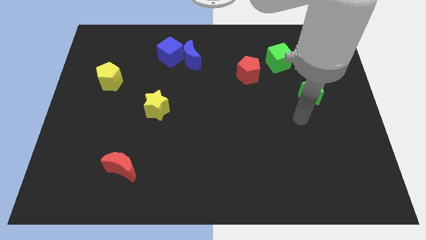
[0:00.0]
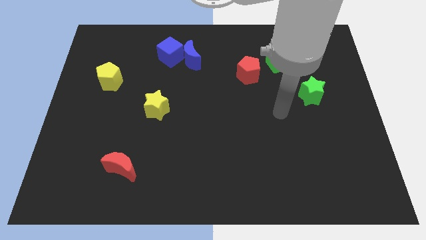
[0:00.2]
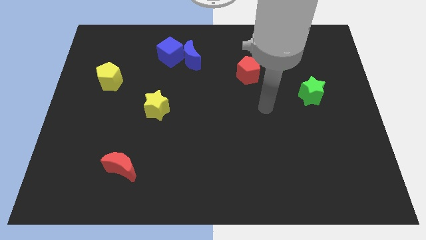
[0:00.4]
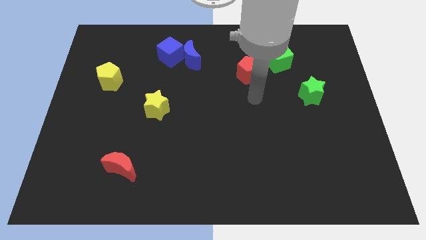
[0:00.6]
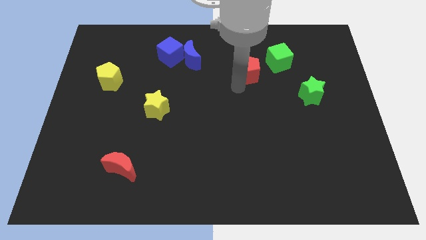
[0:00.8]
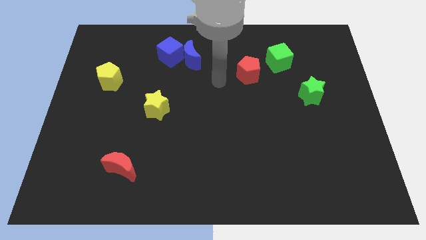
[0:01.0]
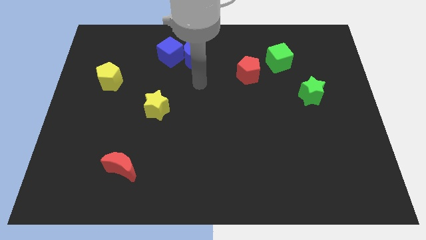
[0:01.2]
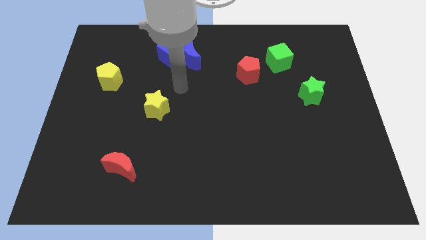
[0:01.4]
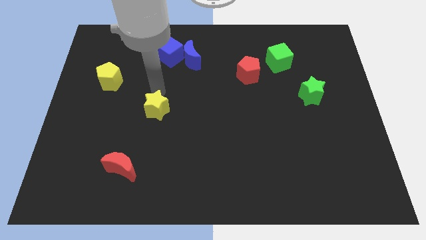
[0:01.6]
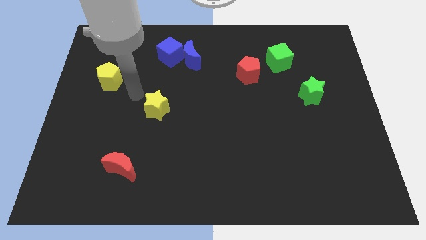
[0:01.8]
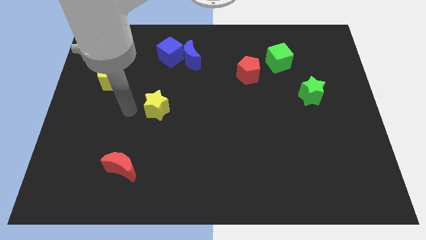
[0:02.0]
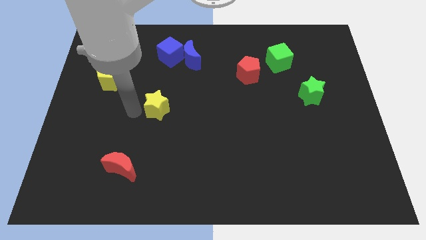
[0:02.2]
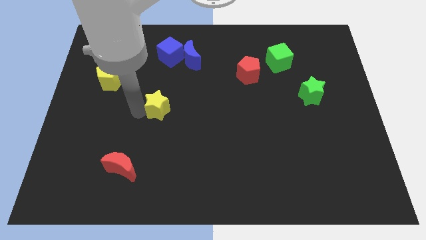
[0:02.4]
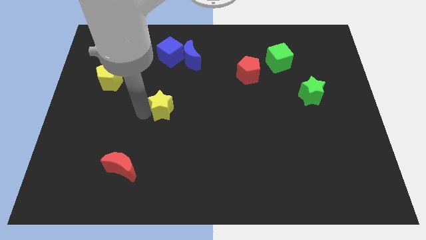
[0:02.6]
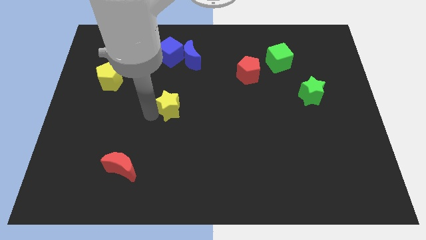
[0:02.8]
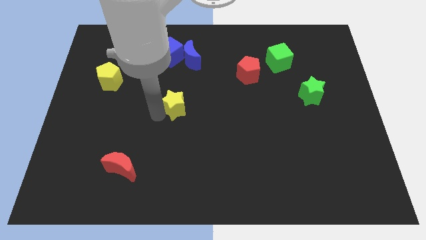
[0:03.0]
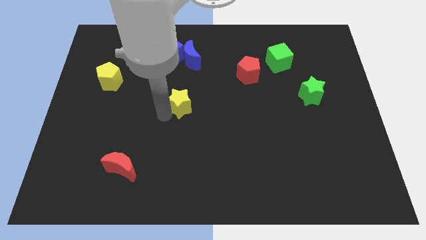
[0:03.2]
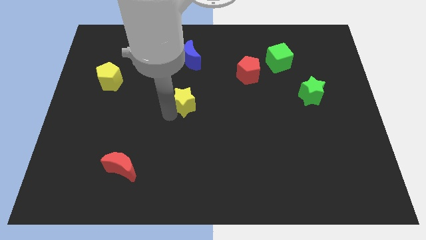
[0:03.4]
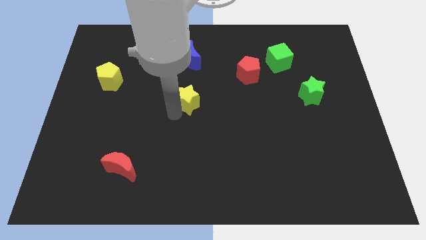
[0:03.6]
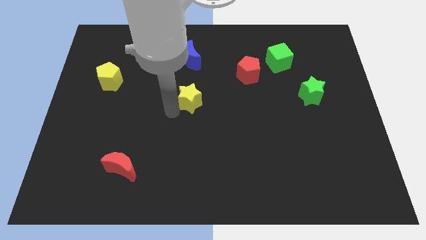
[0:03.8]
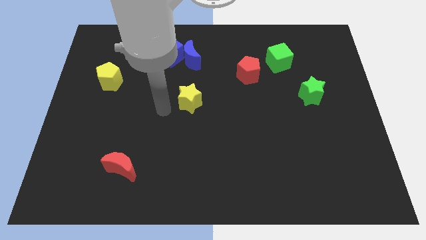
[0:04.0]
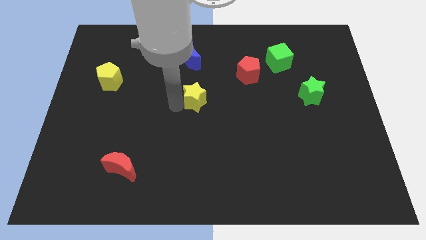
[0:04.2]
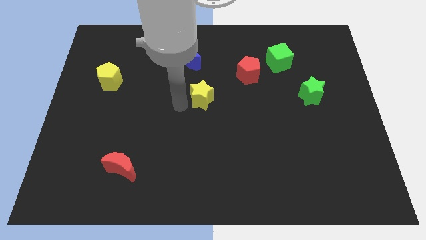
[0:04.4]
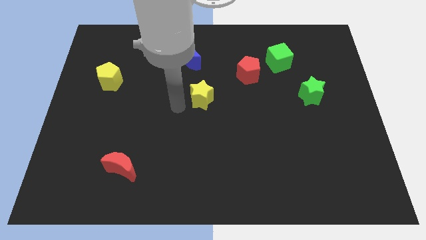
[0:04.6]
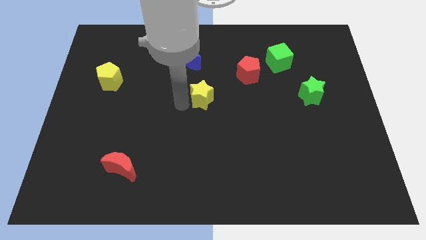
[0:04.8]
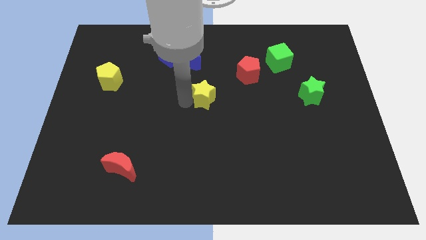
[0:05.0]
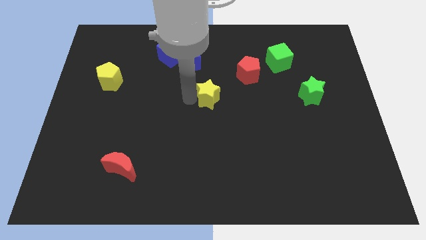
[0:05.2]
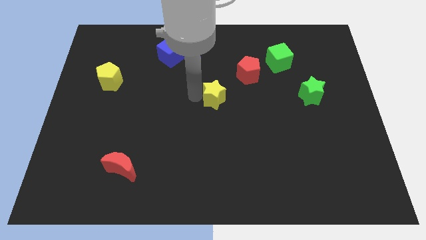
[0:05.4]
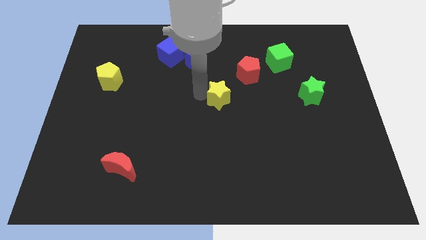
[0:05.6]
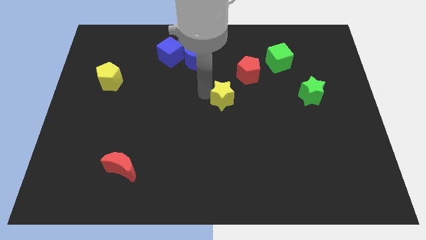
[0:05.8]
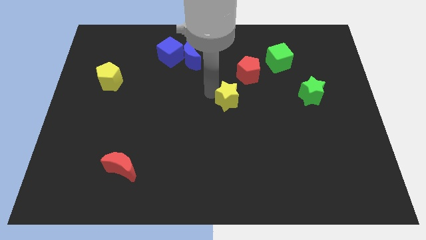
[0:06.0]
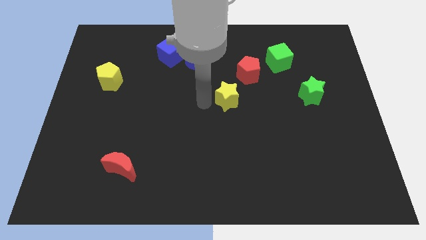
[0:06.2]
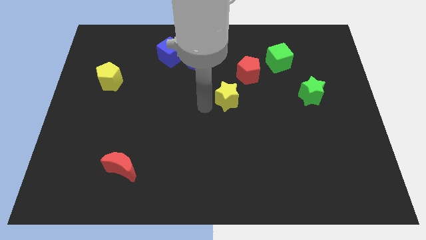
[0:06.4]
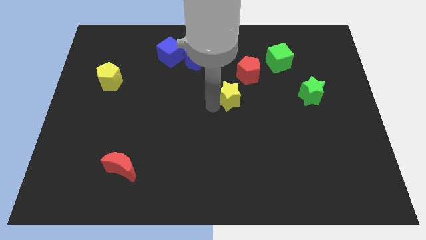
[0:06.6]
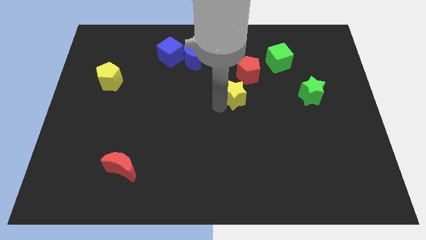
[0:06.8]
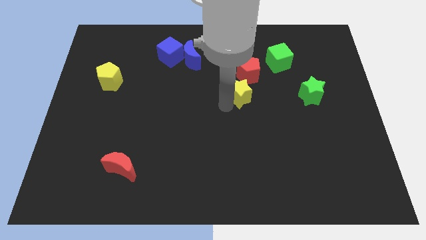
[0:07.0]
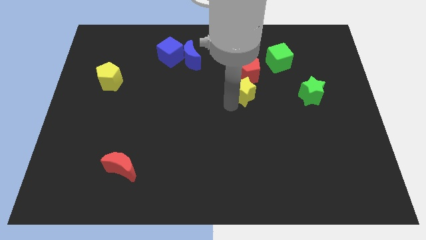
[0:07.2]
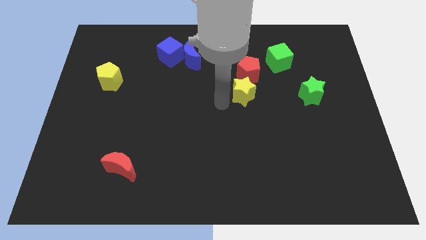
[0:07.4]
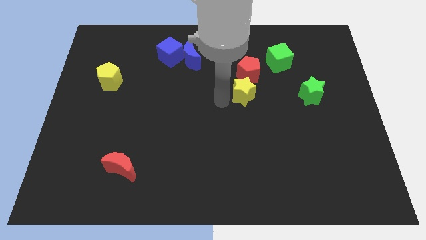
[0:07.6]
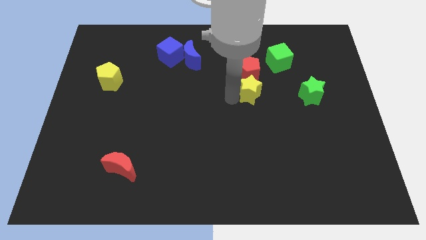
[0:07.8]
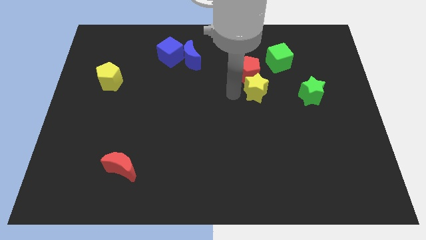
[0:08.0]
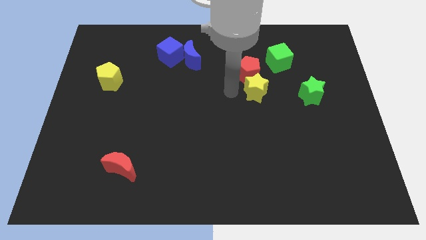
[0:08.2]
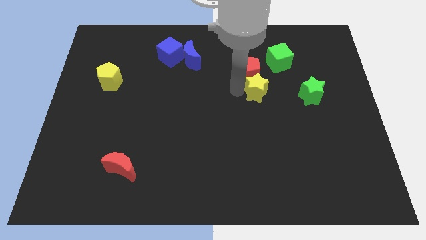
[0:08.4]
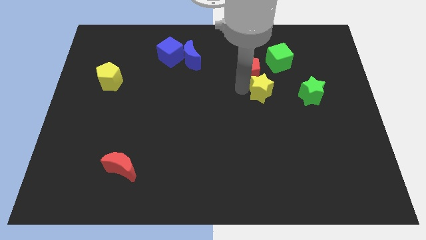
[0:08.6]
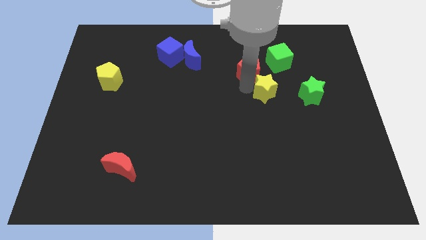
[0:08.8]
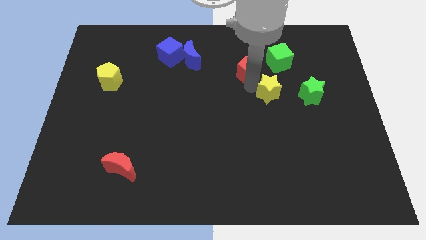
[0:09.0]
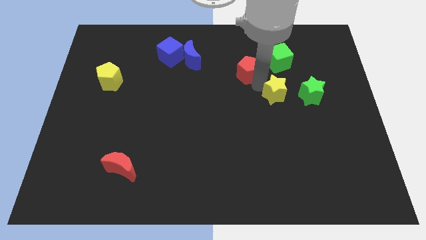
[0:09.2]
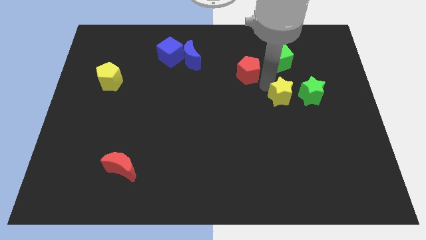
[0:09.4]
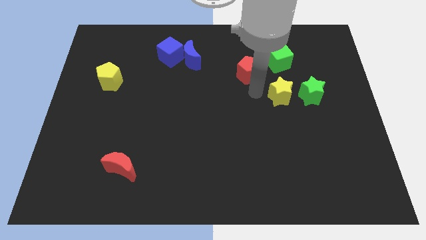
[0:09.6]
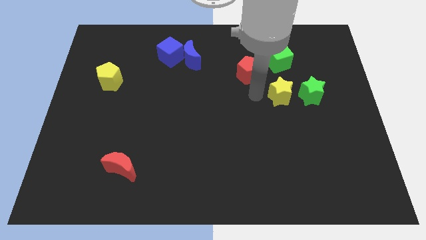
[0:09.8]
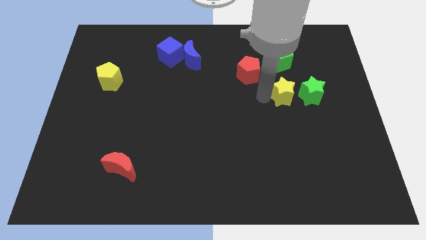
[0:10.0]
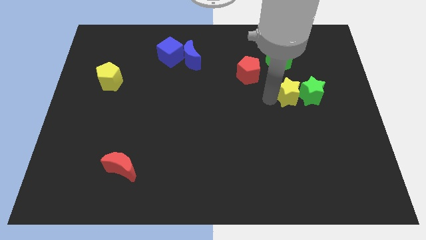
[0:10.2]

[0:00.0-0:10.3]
slide the yellow star close to the green star

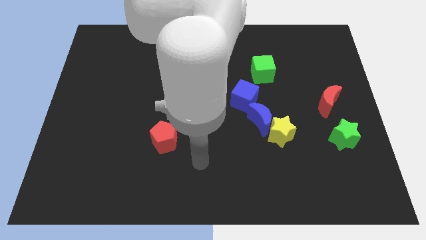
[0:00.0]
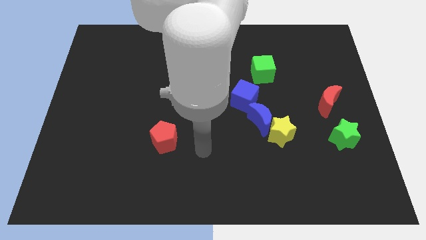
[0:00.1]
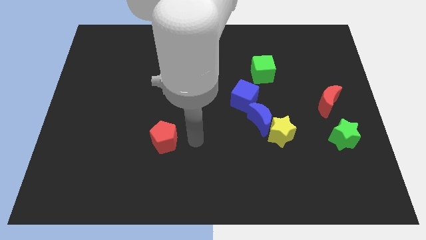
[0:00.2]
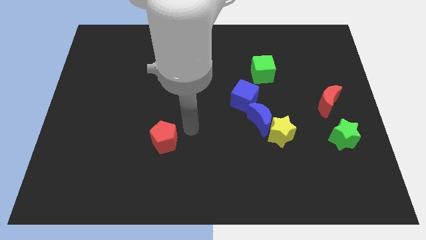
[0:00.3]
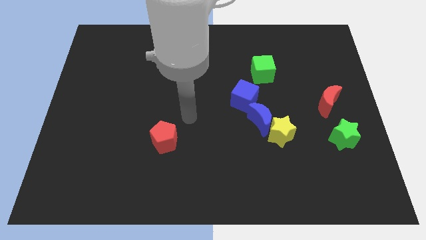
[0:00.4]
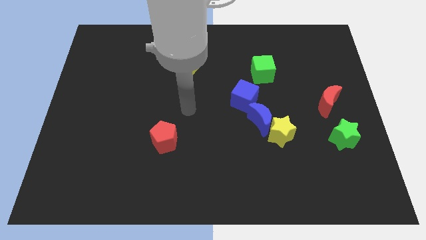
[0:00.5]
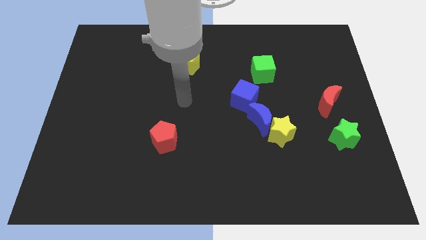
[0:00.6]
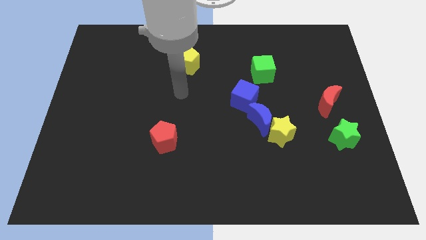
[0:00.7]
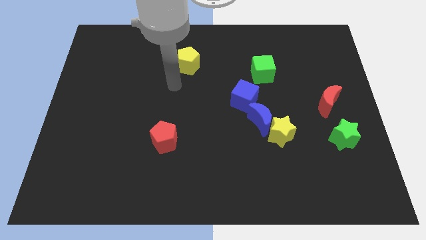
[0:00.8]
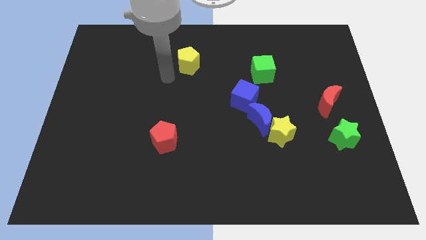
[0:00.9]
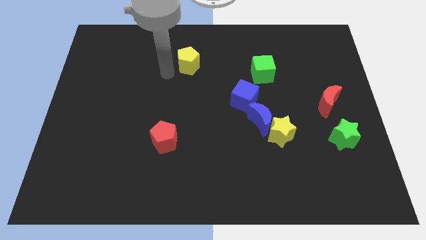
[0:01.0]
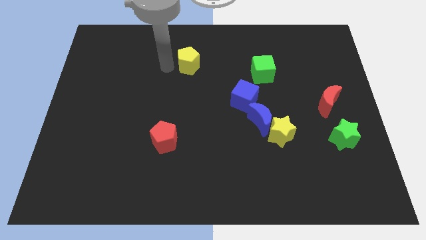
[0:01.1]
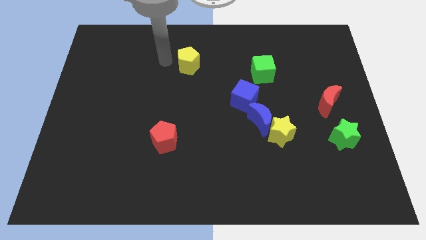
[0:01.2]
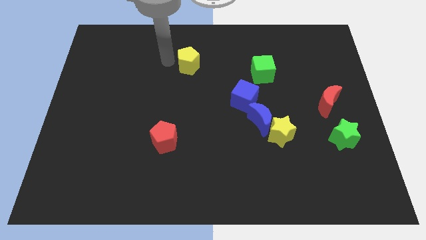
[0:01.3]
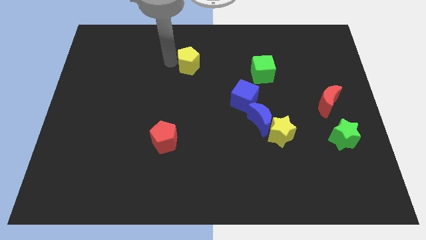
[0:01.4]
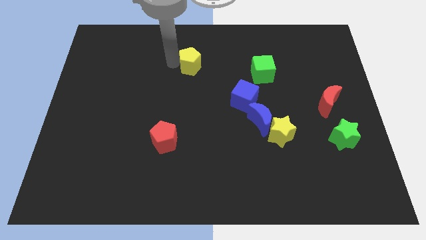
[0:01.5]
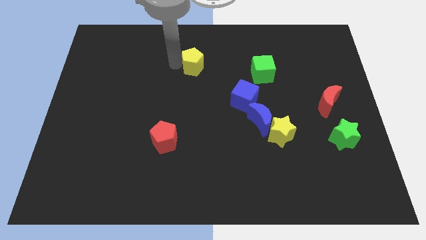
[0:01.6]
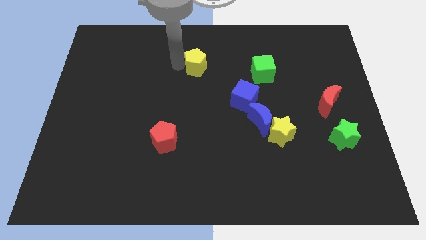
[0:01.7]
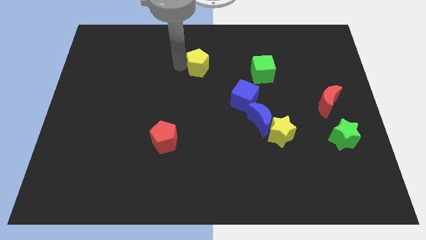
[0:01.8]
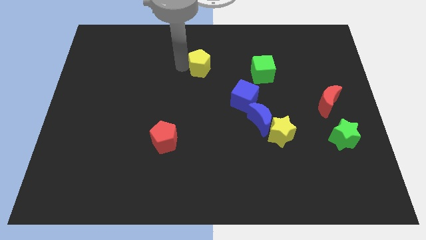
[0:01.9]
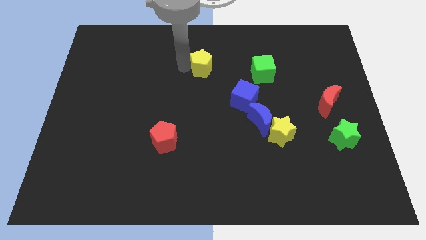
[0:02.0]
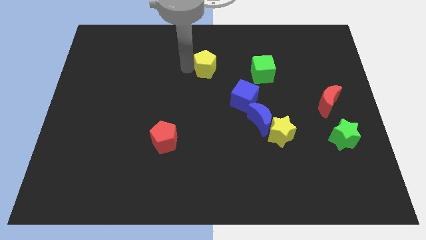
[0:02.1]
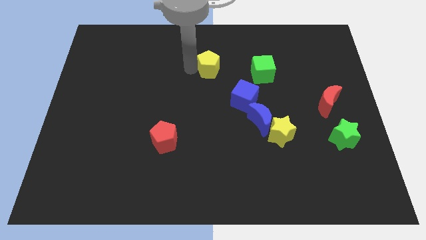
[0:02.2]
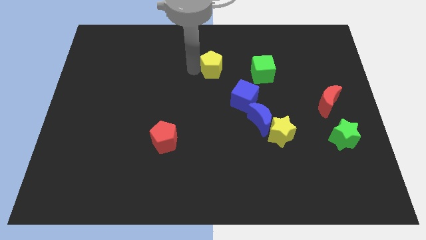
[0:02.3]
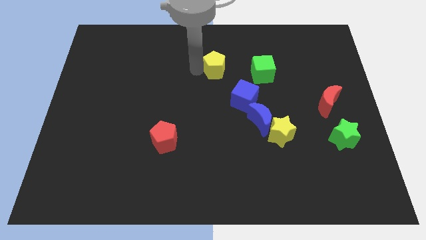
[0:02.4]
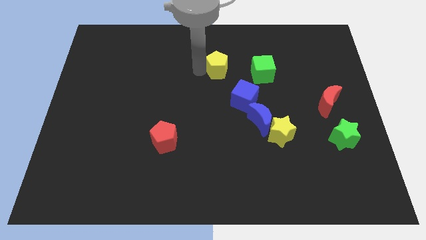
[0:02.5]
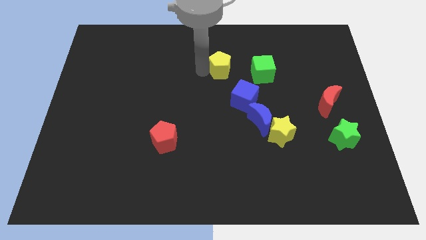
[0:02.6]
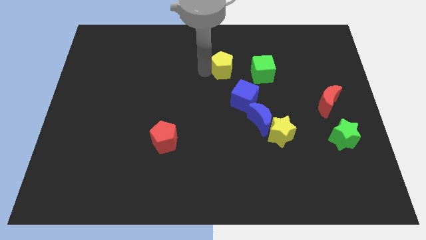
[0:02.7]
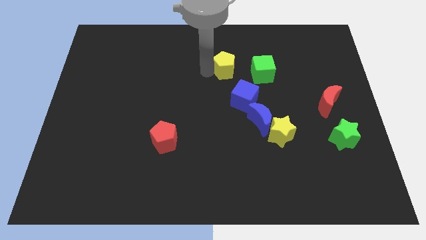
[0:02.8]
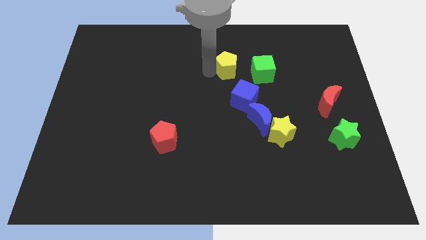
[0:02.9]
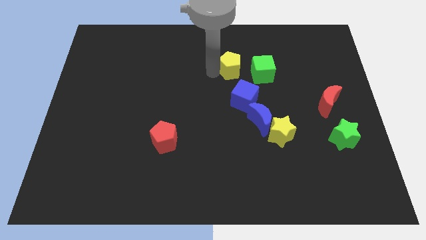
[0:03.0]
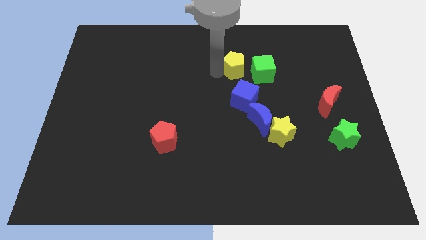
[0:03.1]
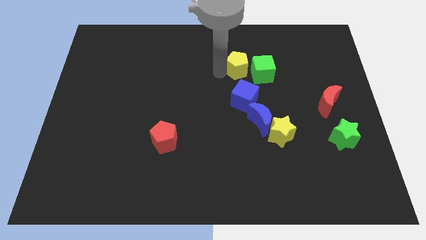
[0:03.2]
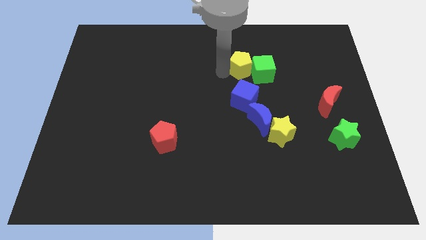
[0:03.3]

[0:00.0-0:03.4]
push the yellow pentagon to the green cube
